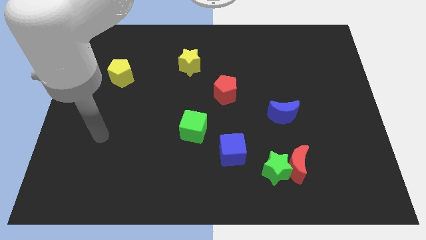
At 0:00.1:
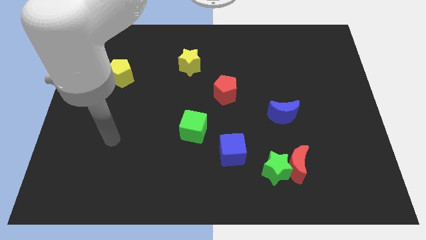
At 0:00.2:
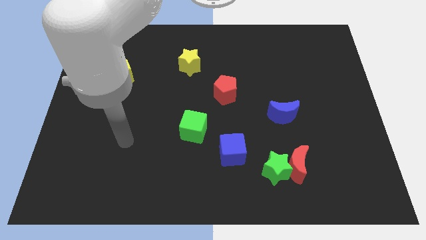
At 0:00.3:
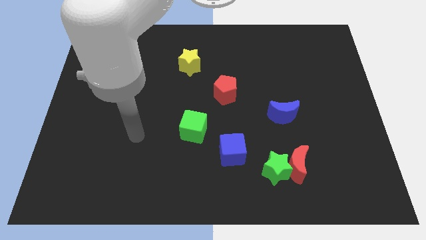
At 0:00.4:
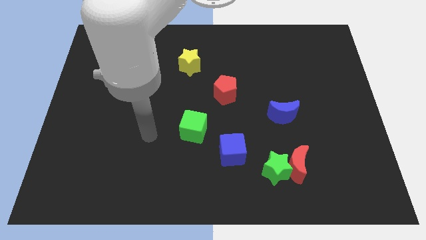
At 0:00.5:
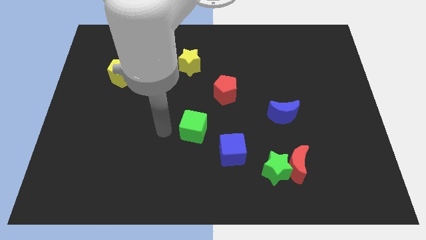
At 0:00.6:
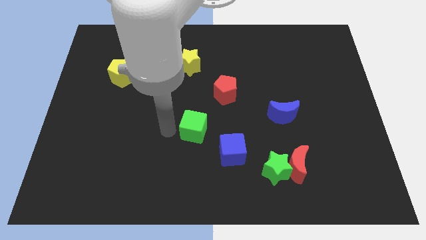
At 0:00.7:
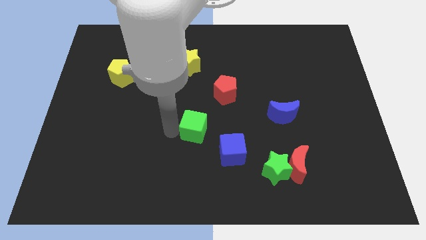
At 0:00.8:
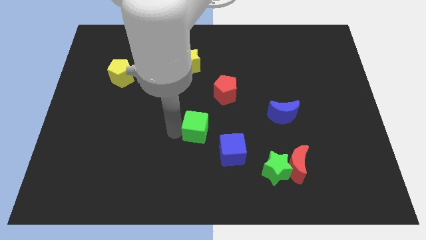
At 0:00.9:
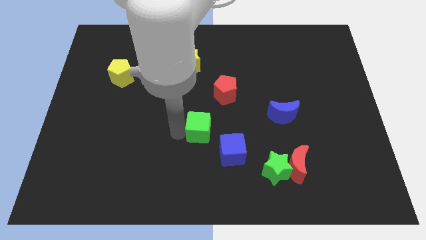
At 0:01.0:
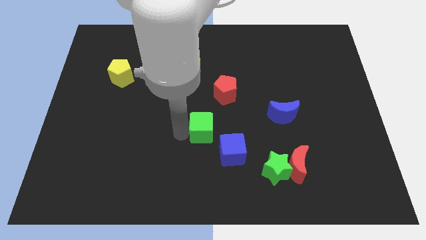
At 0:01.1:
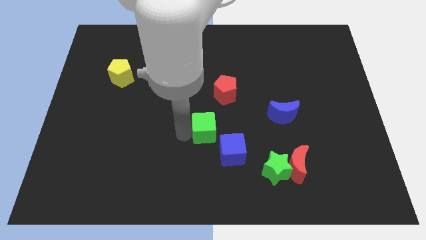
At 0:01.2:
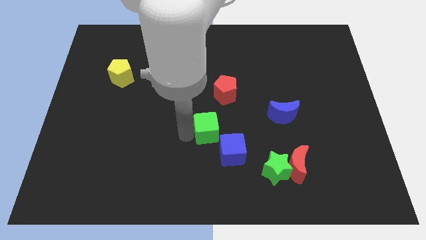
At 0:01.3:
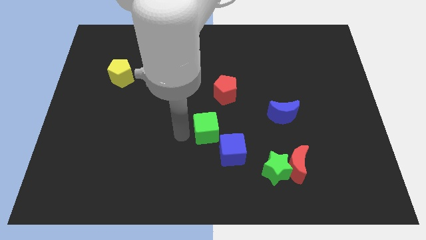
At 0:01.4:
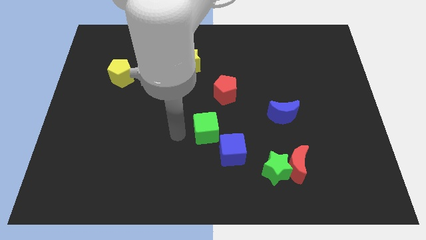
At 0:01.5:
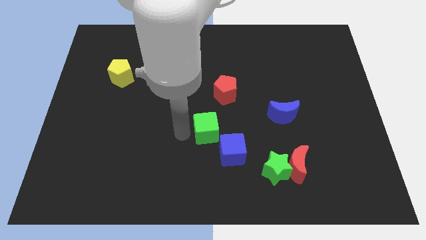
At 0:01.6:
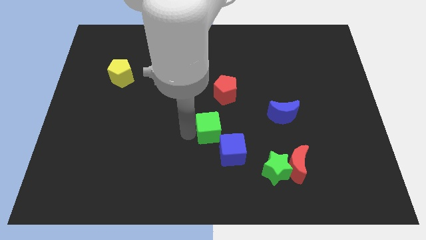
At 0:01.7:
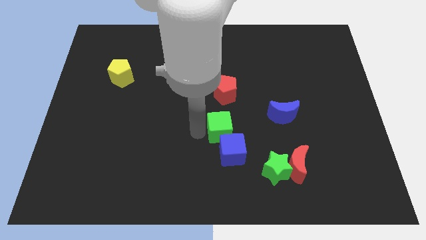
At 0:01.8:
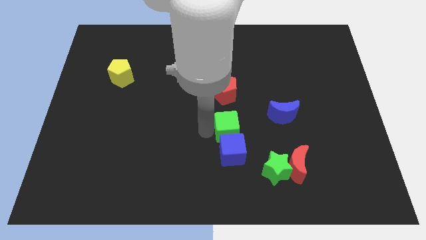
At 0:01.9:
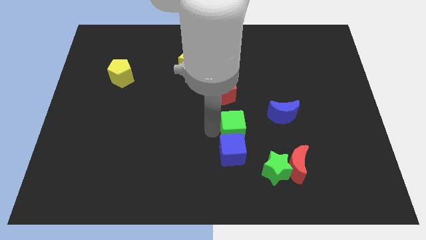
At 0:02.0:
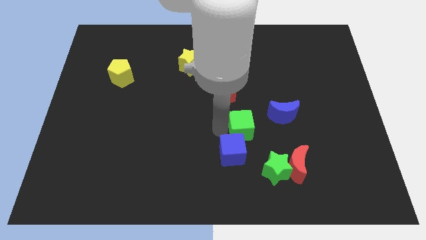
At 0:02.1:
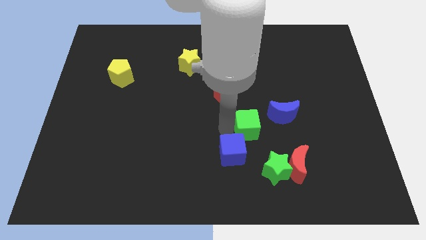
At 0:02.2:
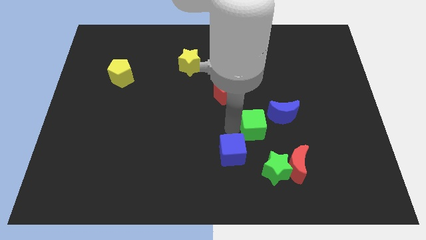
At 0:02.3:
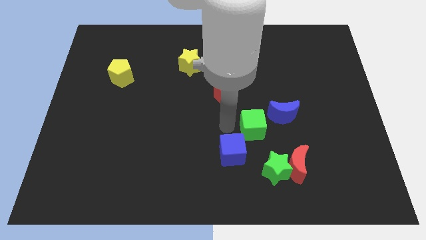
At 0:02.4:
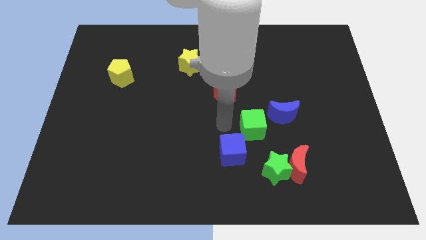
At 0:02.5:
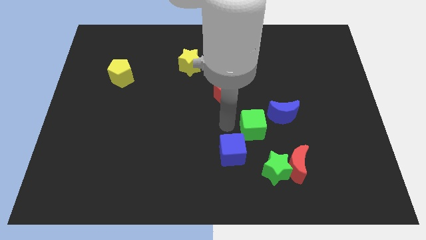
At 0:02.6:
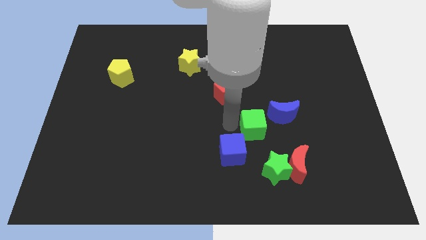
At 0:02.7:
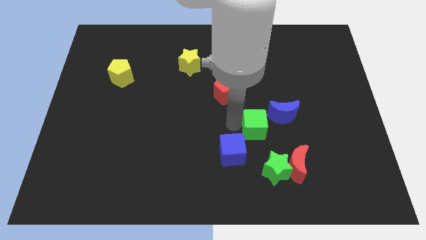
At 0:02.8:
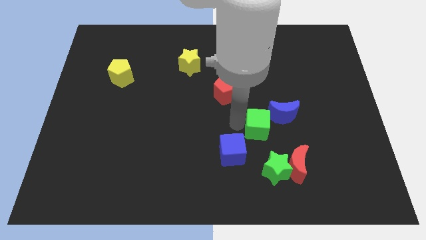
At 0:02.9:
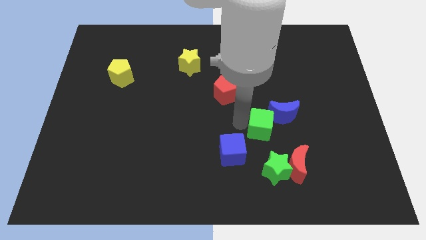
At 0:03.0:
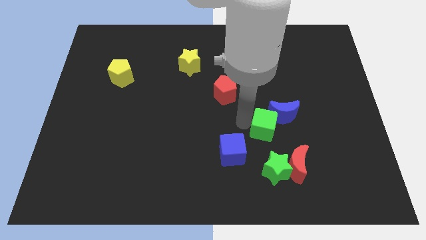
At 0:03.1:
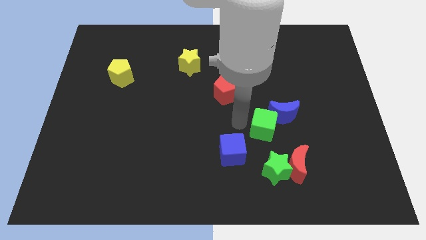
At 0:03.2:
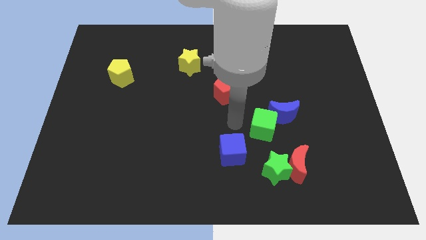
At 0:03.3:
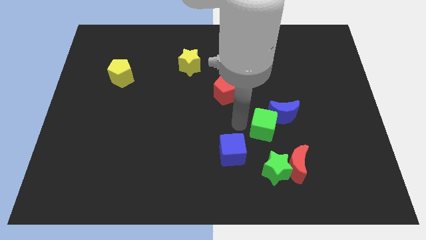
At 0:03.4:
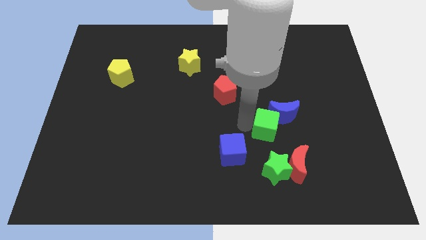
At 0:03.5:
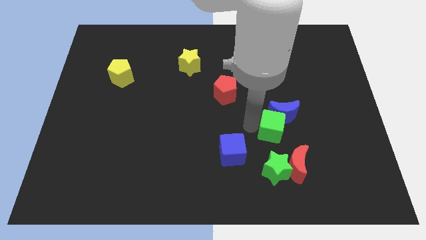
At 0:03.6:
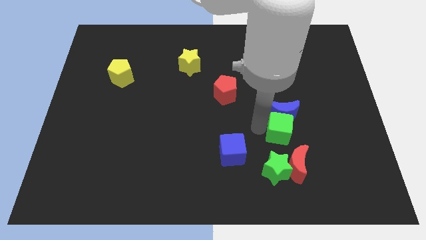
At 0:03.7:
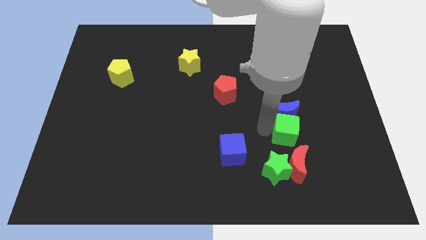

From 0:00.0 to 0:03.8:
move the green cube to the right

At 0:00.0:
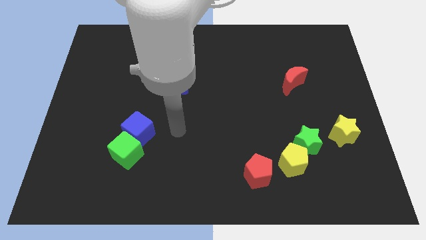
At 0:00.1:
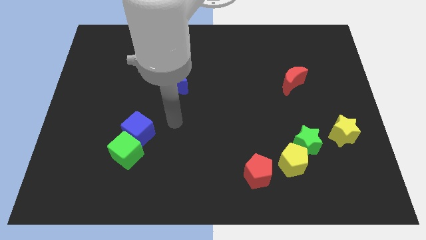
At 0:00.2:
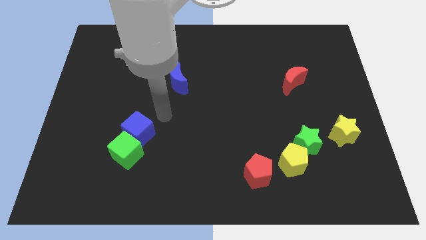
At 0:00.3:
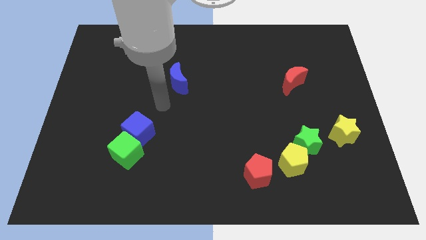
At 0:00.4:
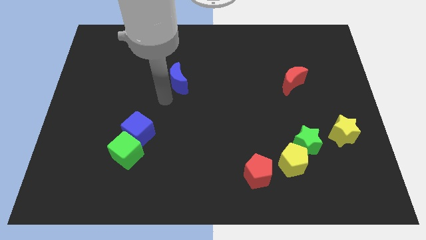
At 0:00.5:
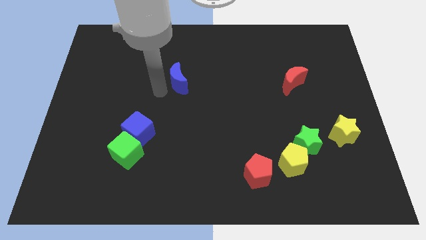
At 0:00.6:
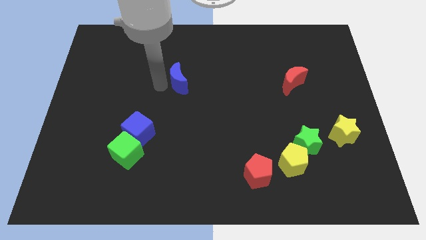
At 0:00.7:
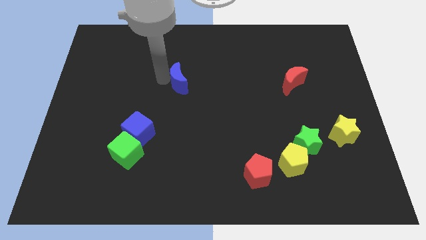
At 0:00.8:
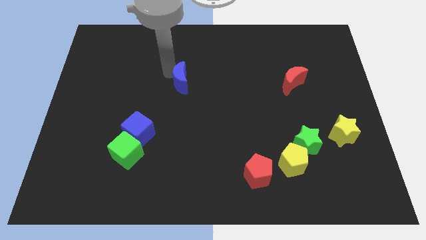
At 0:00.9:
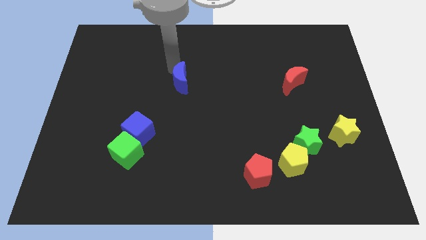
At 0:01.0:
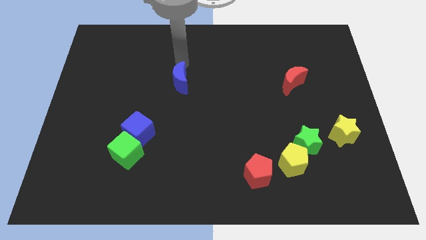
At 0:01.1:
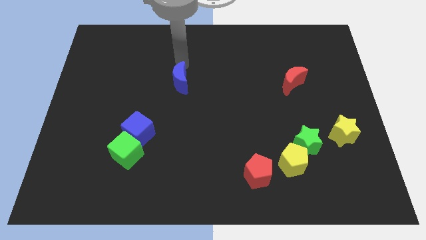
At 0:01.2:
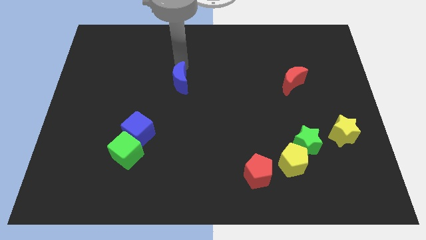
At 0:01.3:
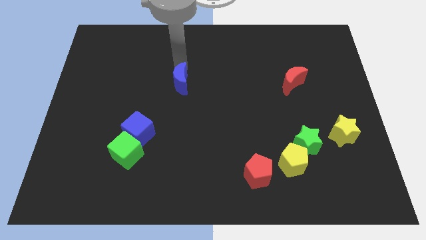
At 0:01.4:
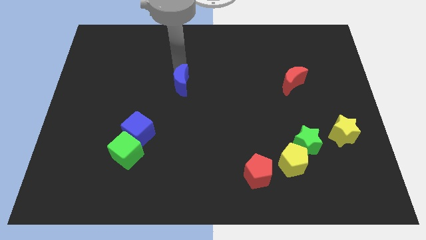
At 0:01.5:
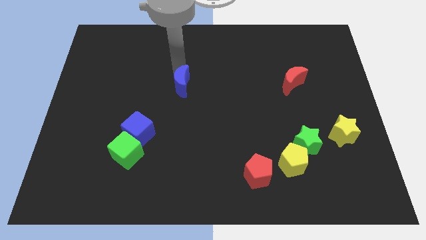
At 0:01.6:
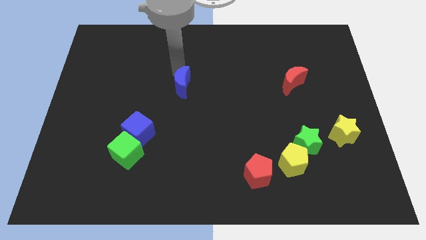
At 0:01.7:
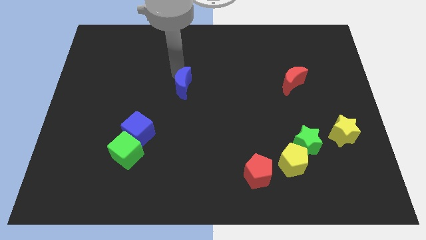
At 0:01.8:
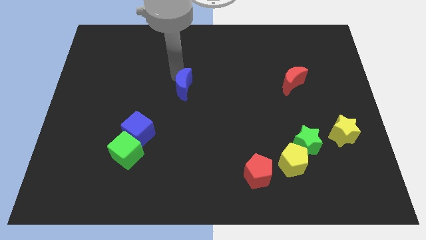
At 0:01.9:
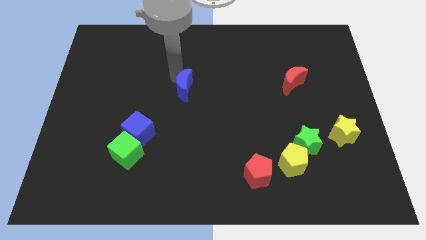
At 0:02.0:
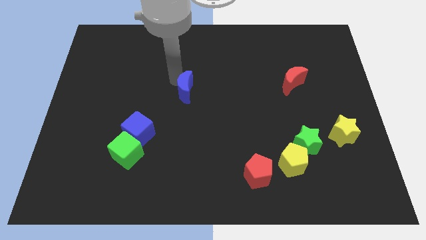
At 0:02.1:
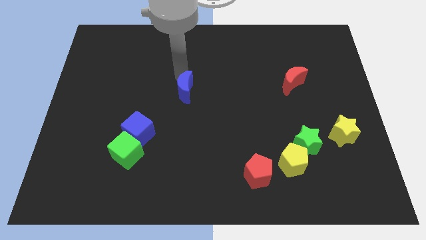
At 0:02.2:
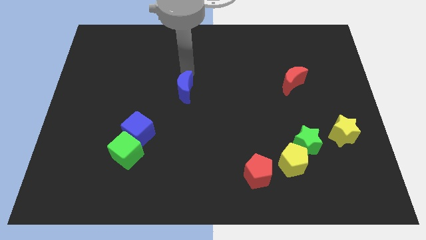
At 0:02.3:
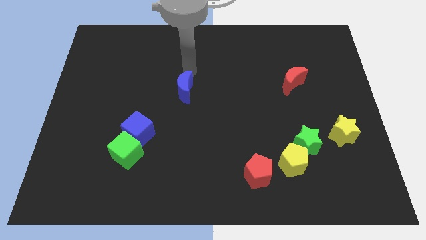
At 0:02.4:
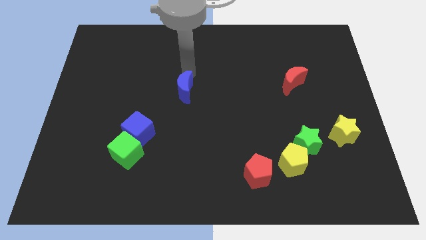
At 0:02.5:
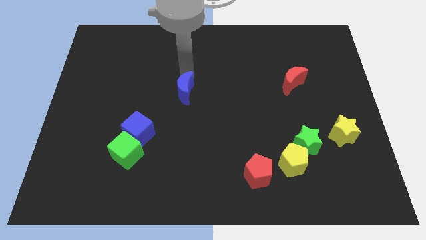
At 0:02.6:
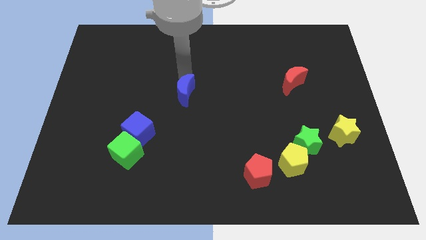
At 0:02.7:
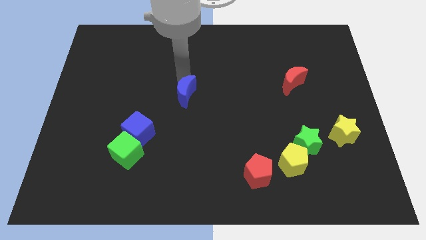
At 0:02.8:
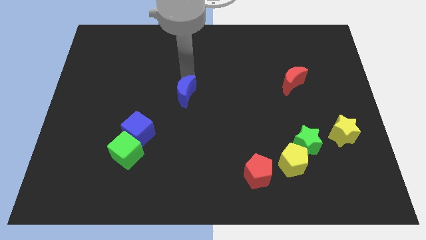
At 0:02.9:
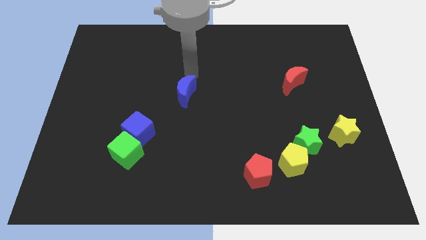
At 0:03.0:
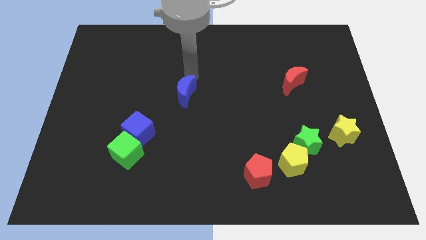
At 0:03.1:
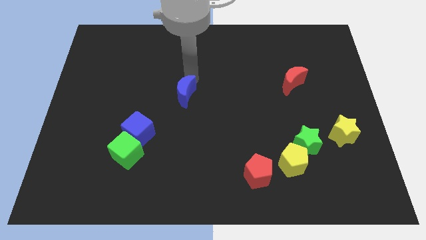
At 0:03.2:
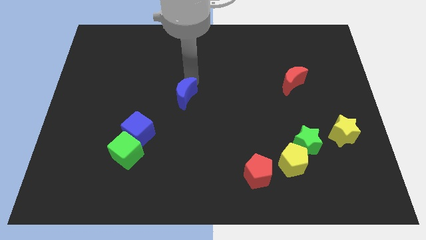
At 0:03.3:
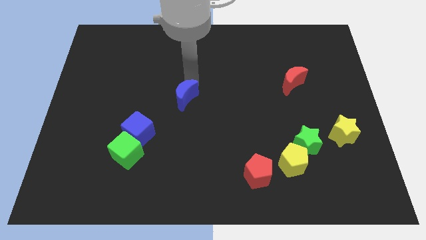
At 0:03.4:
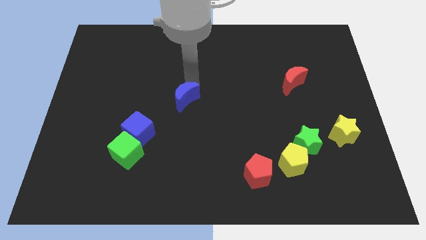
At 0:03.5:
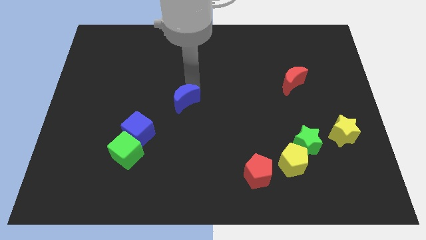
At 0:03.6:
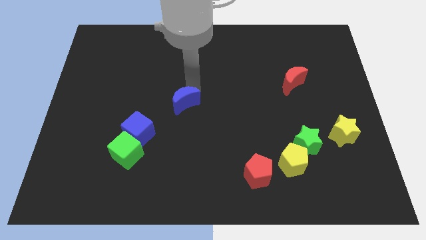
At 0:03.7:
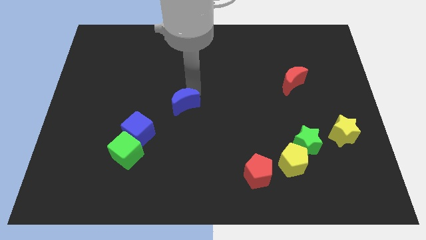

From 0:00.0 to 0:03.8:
slide the blue moon somewhat down
